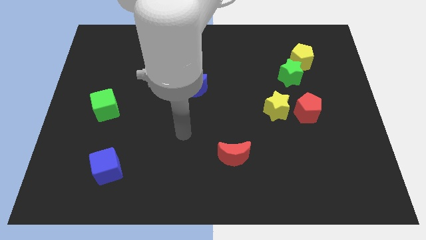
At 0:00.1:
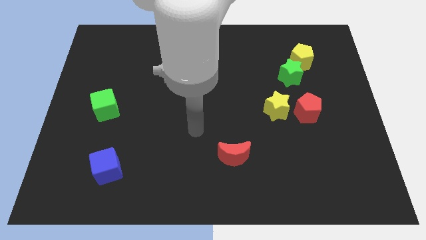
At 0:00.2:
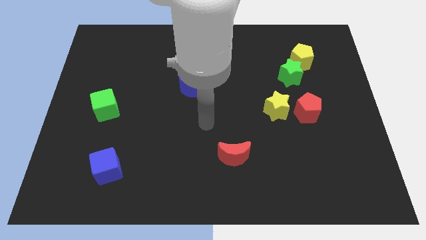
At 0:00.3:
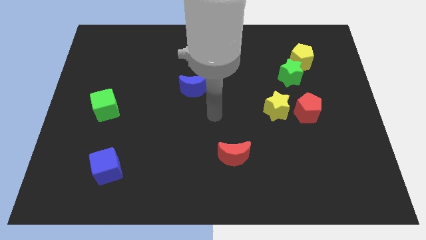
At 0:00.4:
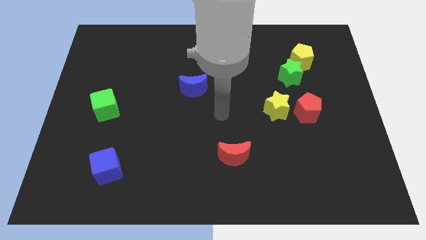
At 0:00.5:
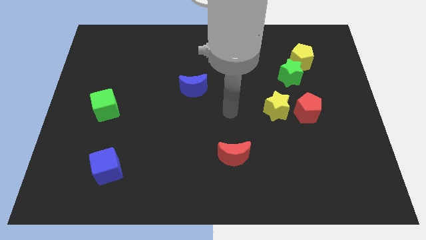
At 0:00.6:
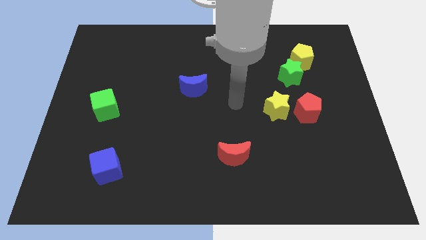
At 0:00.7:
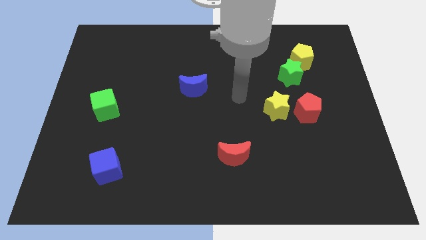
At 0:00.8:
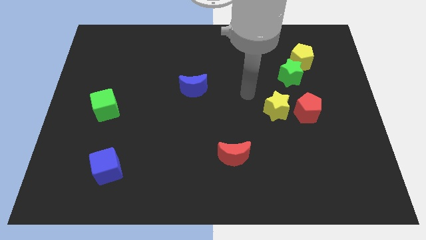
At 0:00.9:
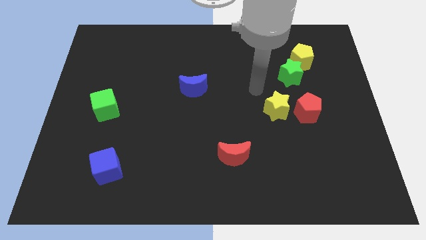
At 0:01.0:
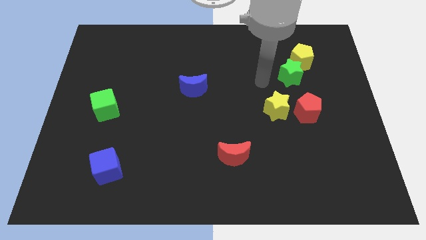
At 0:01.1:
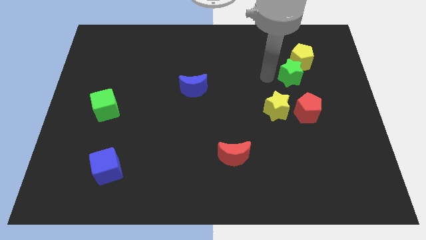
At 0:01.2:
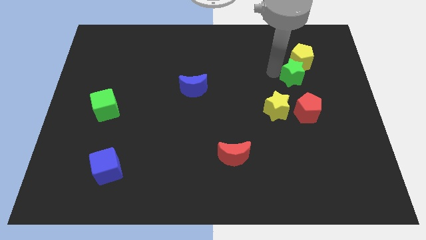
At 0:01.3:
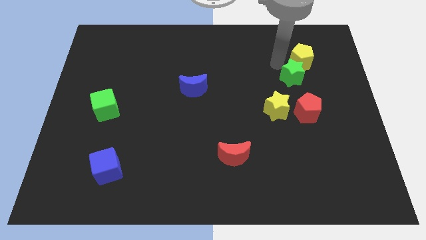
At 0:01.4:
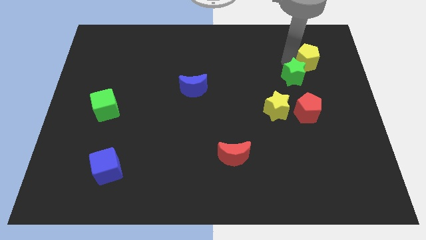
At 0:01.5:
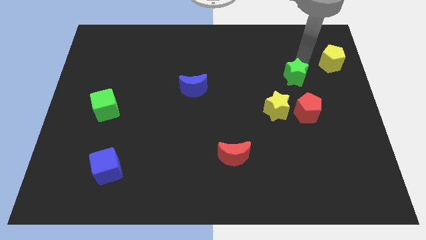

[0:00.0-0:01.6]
pull the green star apart from the yellow pentagon

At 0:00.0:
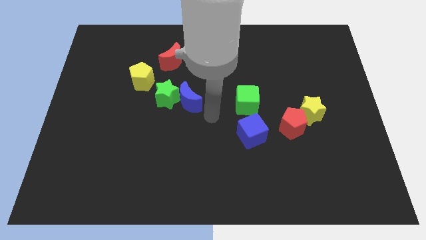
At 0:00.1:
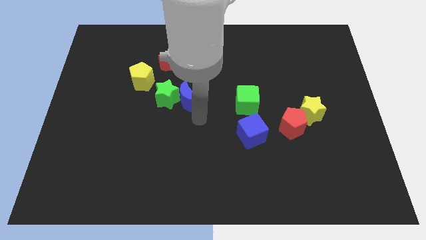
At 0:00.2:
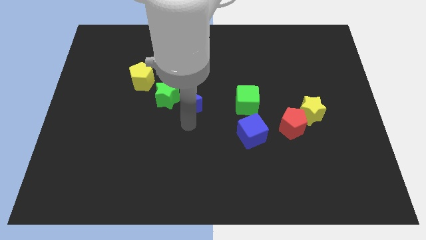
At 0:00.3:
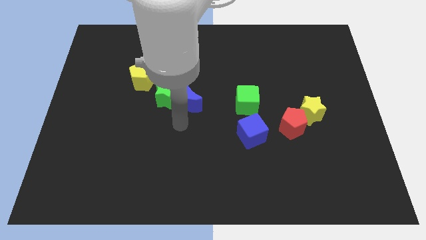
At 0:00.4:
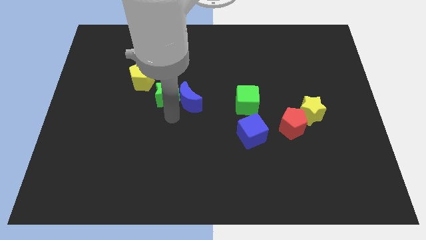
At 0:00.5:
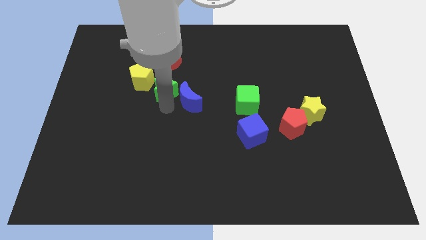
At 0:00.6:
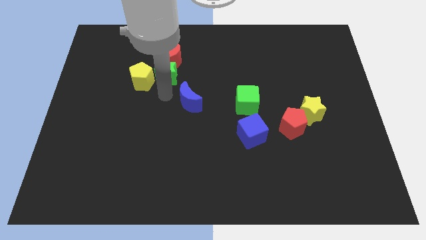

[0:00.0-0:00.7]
pull the blue moon apart from the green star

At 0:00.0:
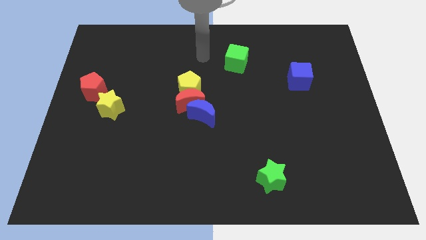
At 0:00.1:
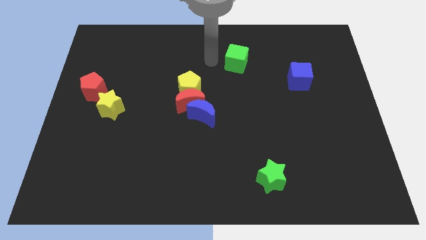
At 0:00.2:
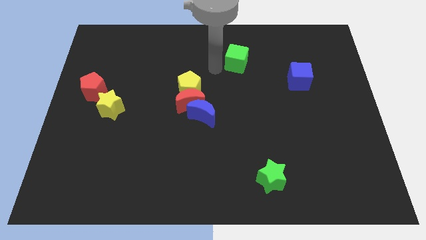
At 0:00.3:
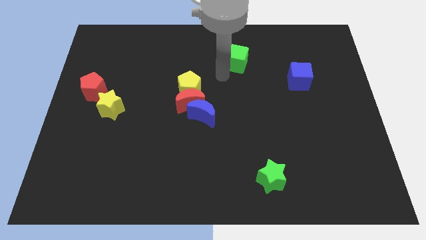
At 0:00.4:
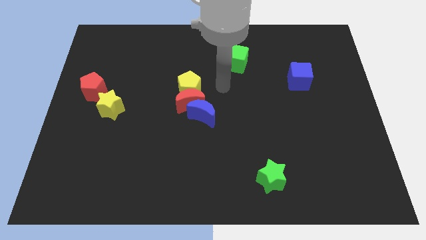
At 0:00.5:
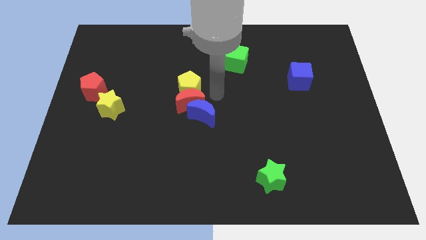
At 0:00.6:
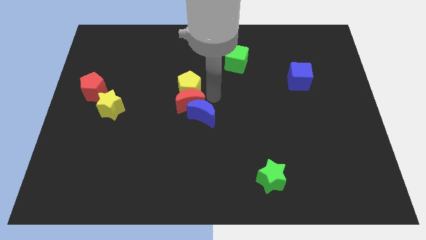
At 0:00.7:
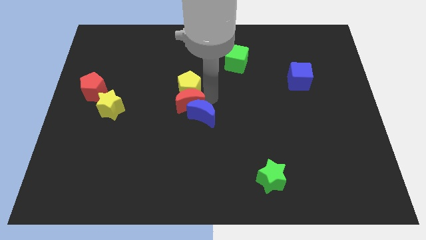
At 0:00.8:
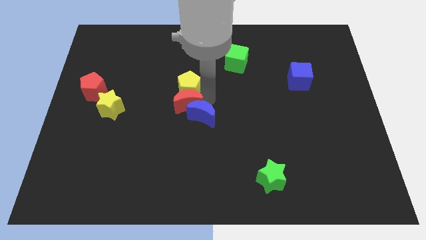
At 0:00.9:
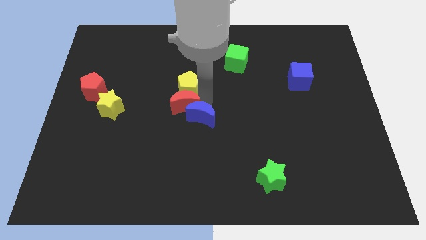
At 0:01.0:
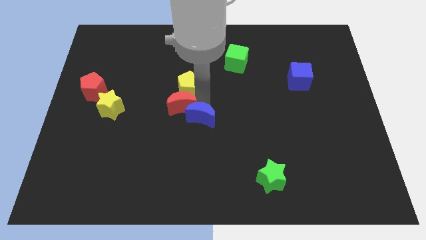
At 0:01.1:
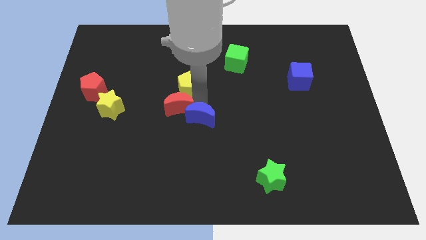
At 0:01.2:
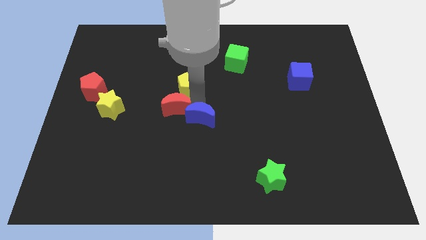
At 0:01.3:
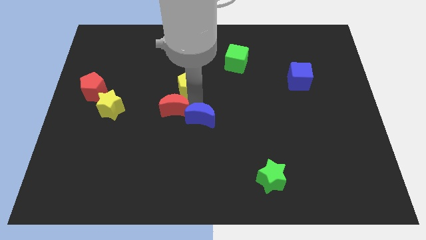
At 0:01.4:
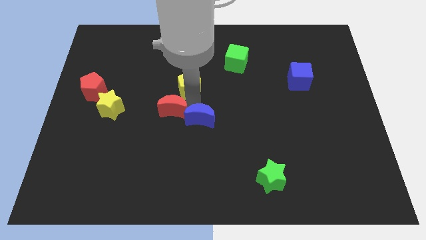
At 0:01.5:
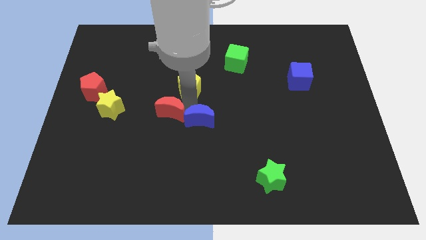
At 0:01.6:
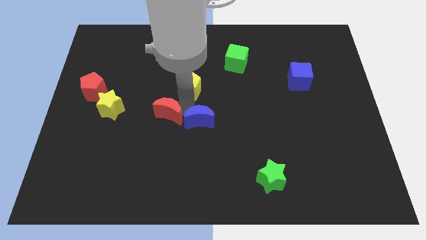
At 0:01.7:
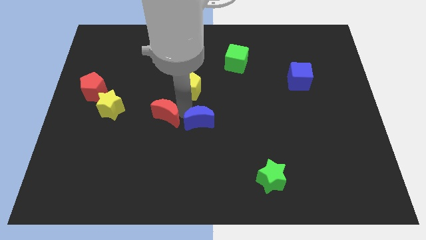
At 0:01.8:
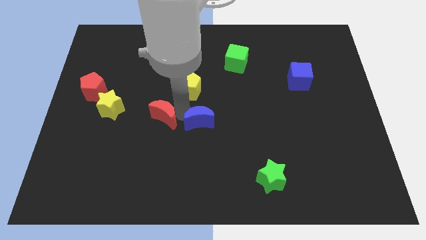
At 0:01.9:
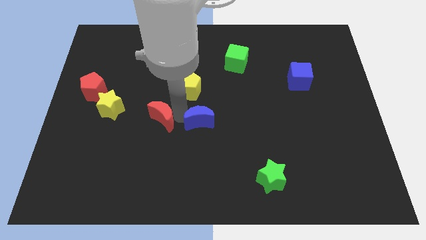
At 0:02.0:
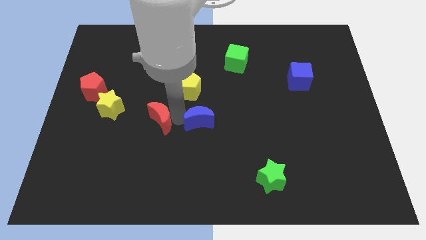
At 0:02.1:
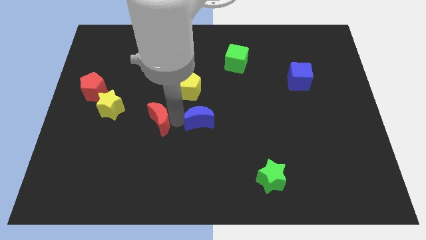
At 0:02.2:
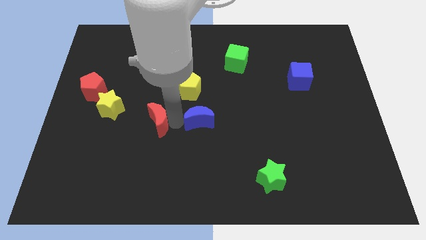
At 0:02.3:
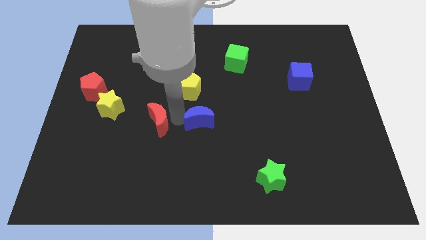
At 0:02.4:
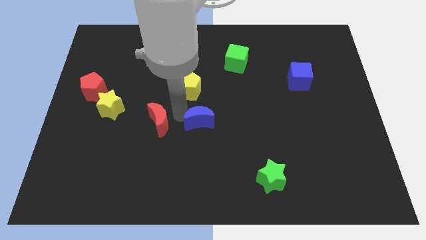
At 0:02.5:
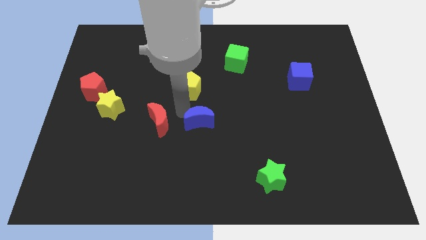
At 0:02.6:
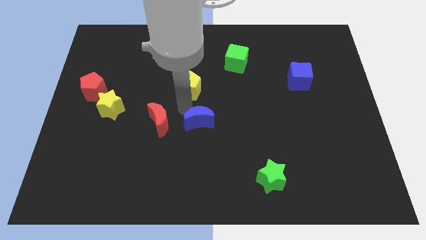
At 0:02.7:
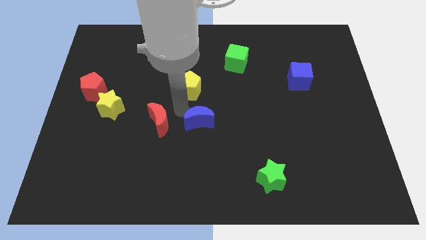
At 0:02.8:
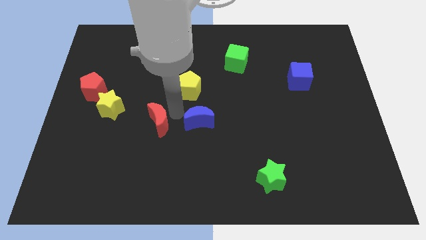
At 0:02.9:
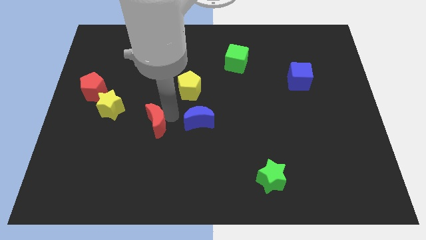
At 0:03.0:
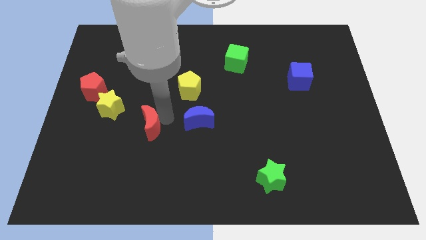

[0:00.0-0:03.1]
separate the red moon from the yellow pentagon and blue moon

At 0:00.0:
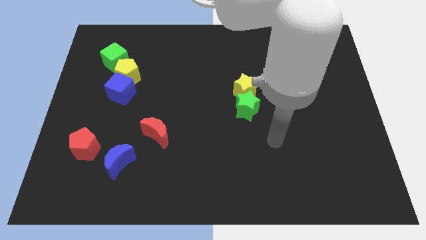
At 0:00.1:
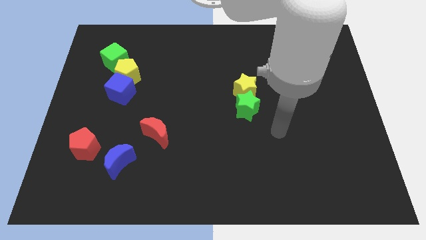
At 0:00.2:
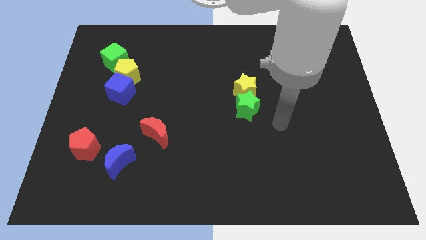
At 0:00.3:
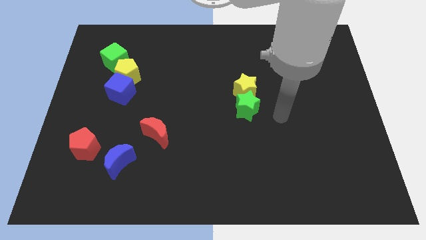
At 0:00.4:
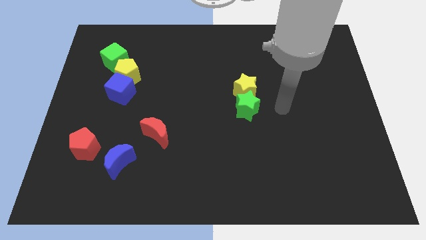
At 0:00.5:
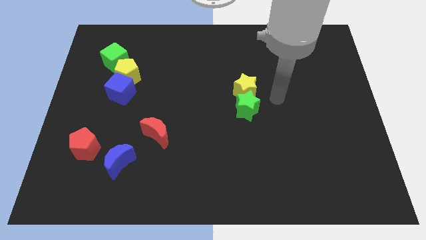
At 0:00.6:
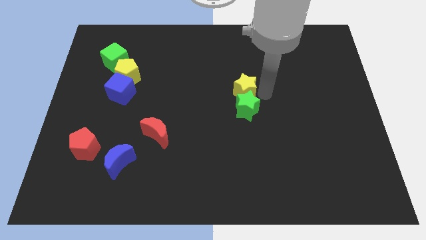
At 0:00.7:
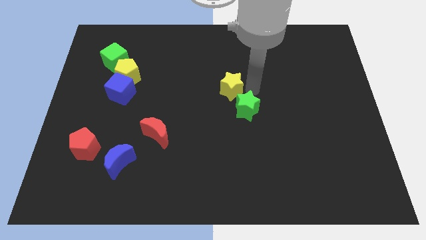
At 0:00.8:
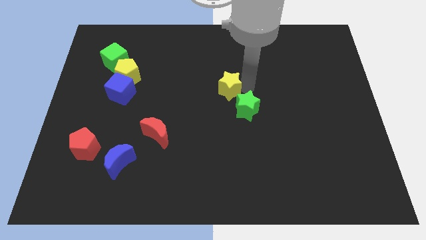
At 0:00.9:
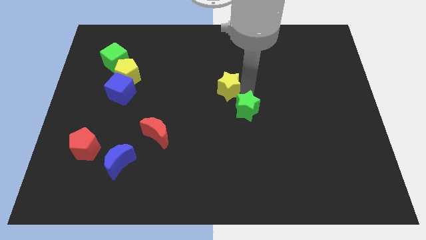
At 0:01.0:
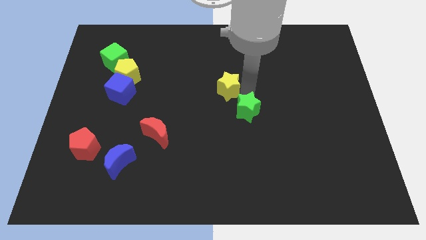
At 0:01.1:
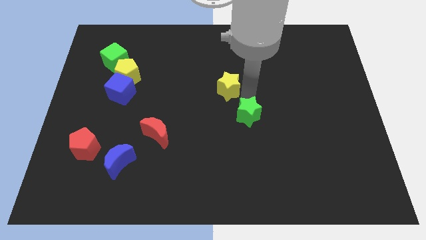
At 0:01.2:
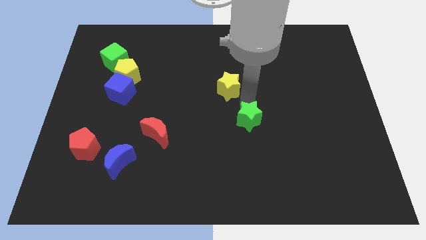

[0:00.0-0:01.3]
separate the green star from the yellow star

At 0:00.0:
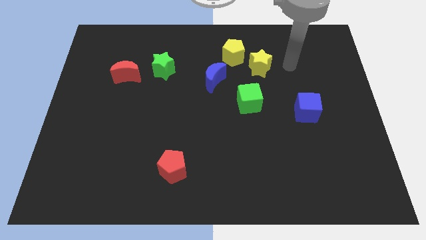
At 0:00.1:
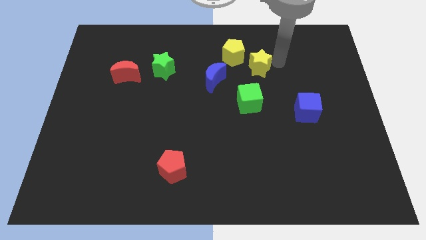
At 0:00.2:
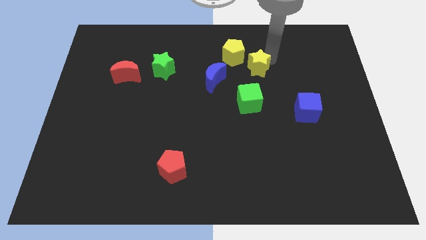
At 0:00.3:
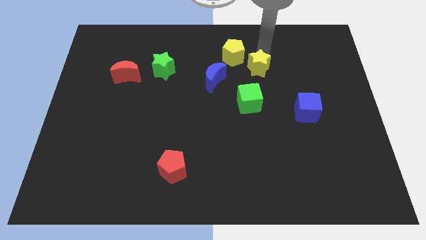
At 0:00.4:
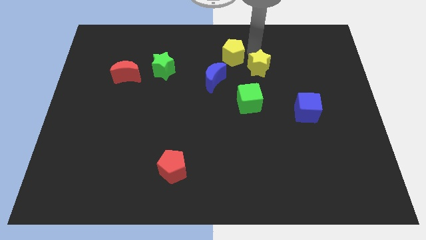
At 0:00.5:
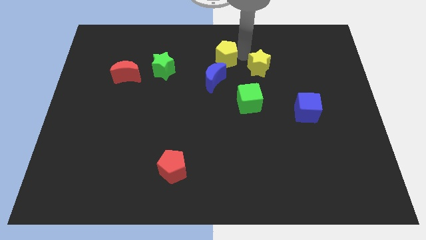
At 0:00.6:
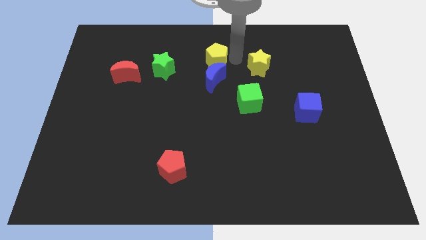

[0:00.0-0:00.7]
separate the yellow star from the yellow pentagon

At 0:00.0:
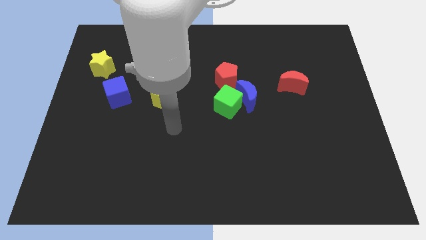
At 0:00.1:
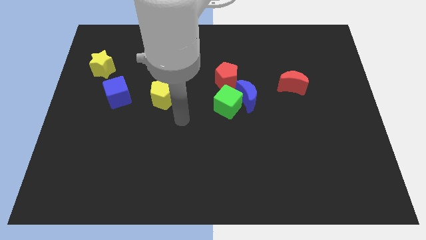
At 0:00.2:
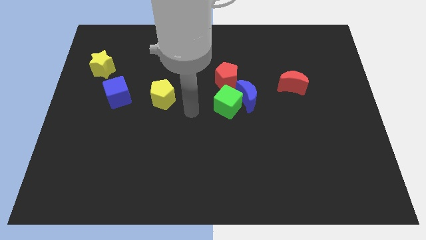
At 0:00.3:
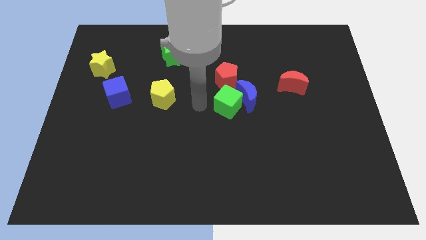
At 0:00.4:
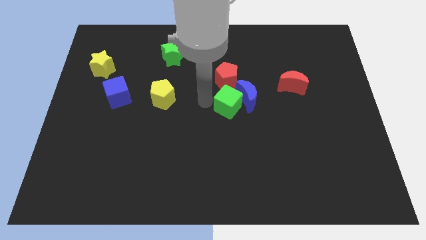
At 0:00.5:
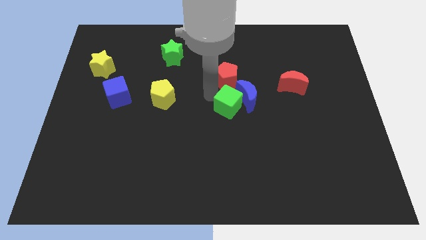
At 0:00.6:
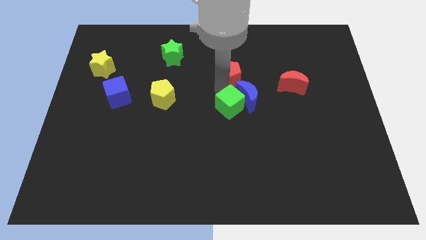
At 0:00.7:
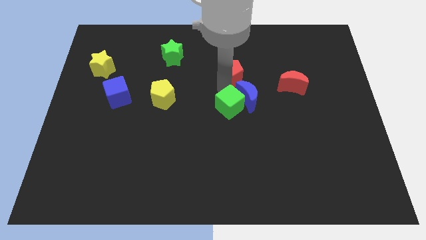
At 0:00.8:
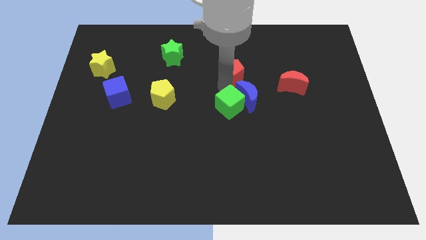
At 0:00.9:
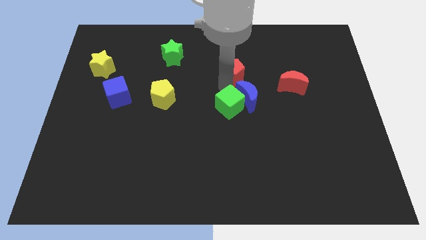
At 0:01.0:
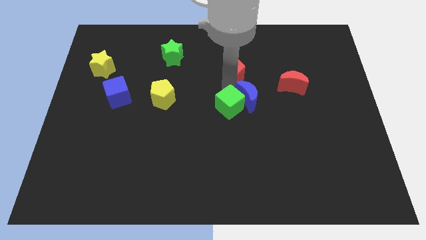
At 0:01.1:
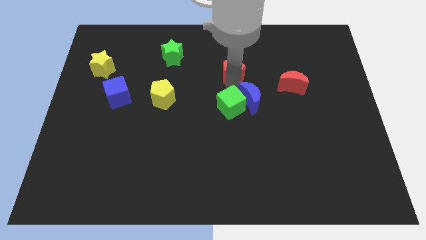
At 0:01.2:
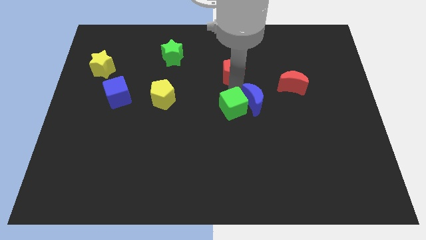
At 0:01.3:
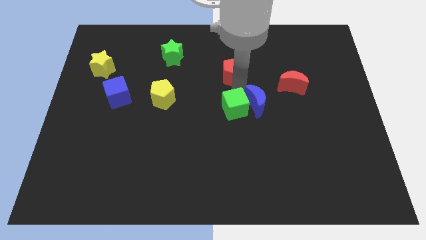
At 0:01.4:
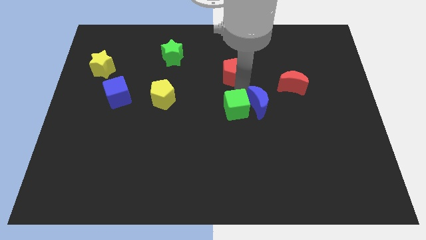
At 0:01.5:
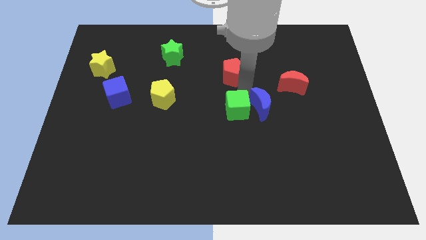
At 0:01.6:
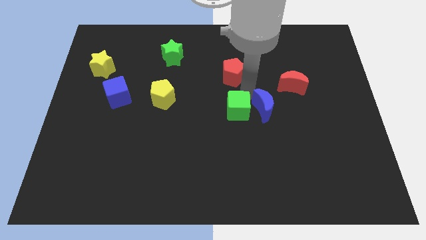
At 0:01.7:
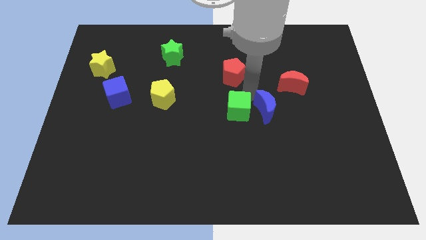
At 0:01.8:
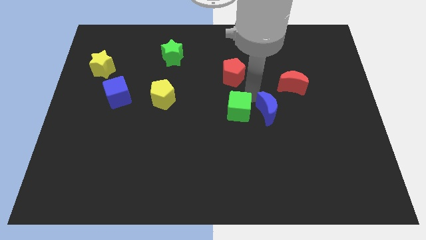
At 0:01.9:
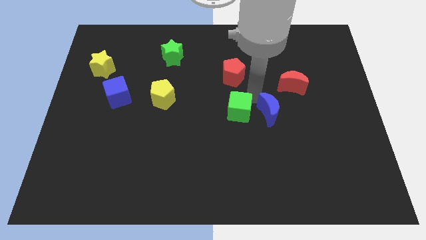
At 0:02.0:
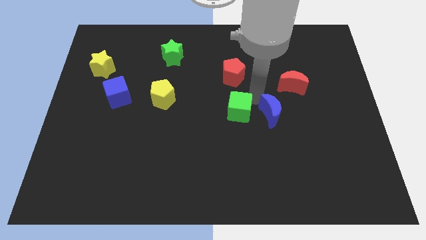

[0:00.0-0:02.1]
separate the blue moon from the green cube and red pentagon
